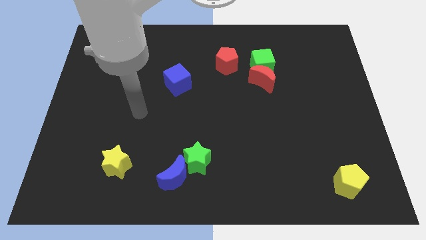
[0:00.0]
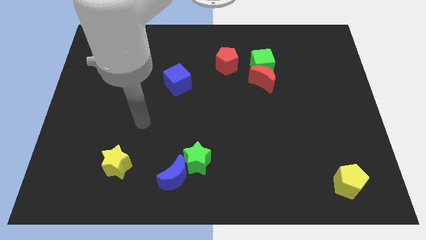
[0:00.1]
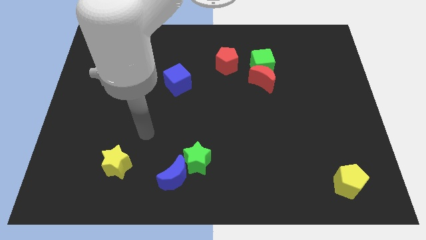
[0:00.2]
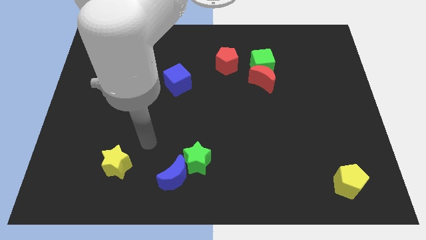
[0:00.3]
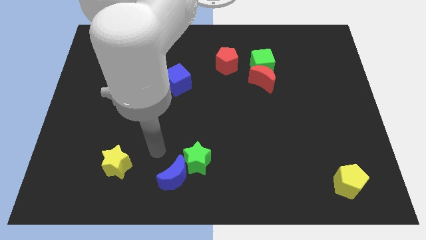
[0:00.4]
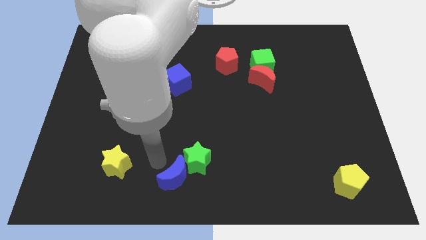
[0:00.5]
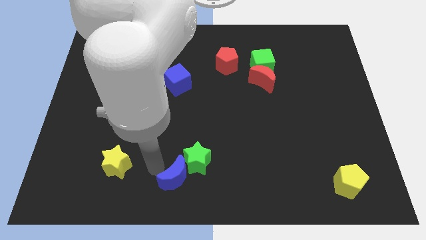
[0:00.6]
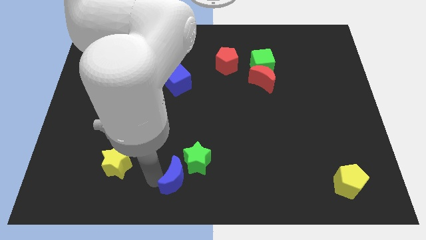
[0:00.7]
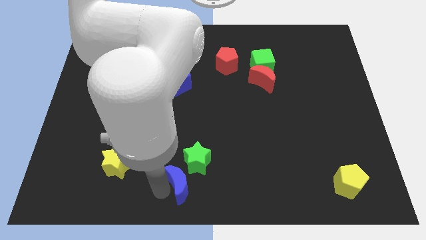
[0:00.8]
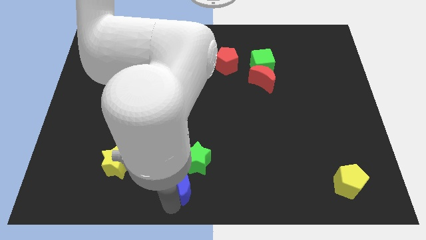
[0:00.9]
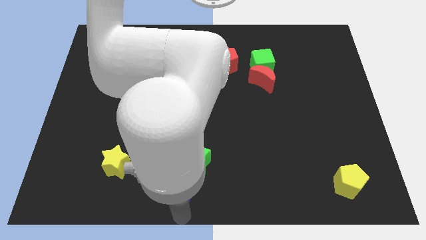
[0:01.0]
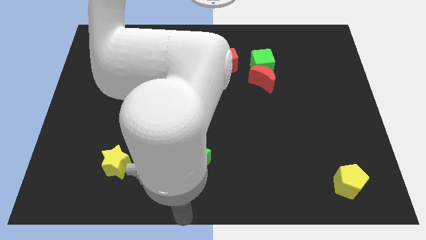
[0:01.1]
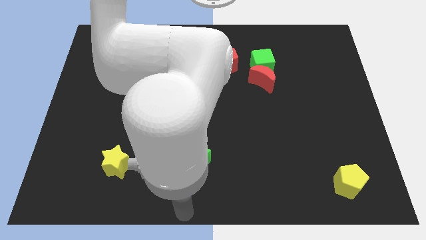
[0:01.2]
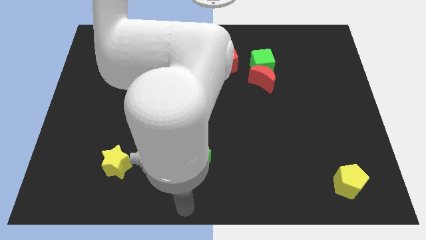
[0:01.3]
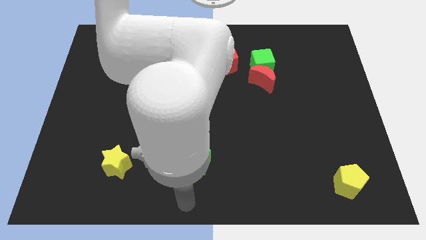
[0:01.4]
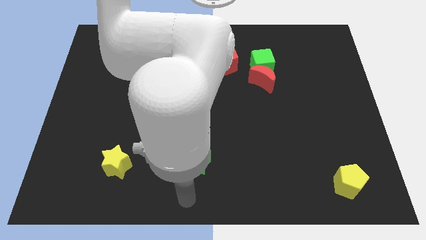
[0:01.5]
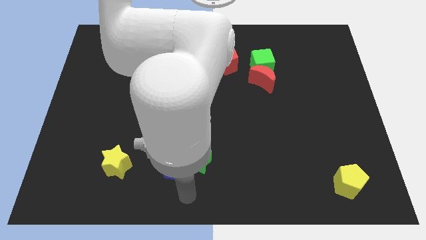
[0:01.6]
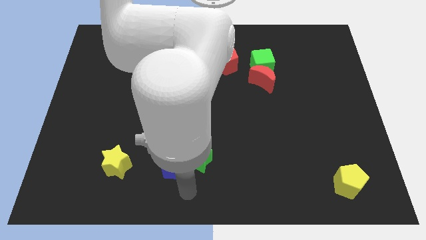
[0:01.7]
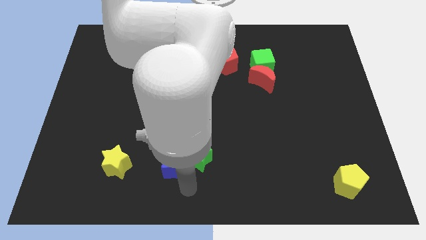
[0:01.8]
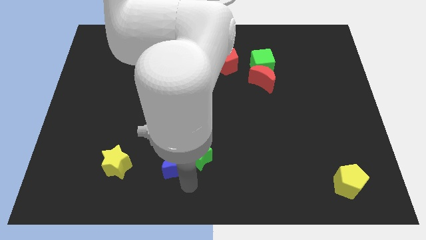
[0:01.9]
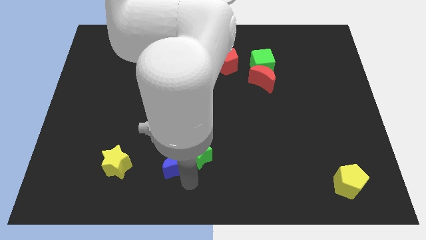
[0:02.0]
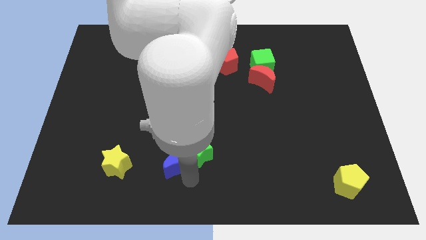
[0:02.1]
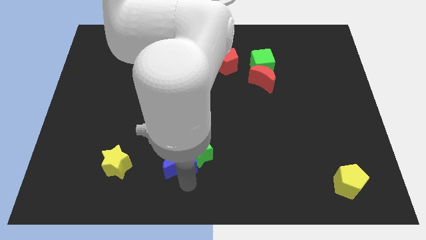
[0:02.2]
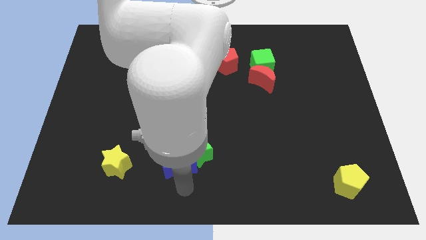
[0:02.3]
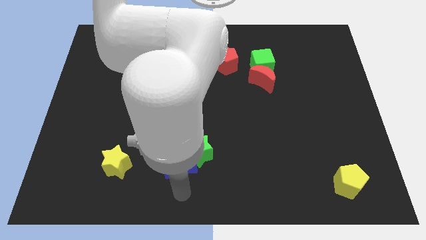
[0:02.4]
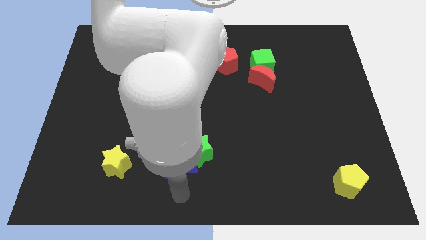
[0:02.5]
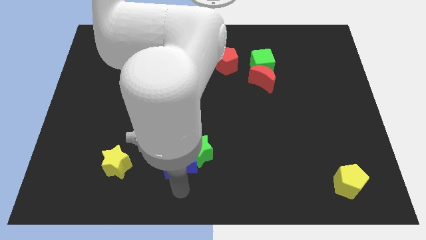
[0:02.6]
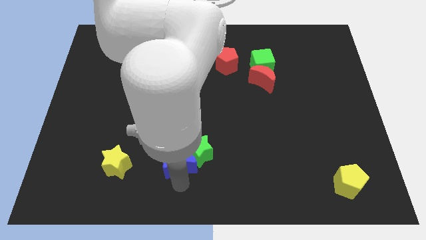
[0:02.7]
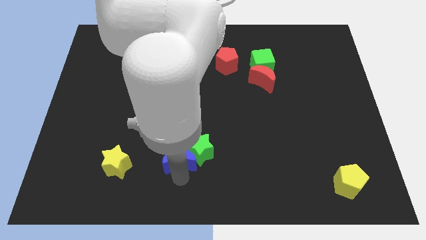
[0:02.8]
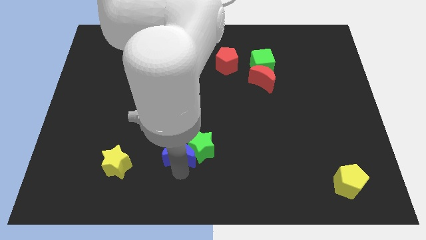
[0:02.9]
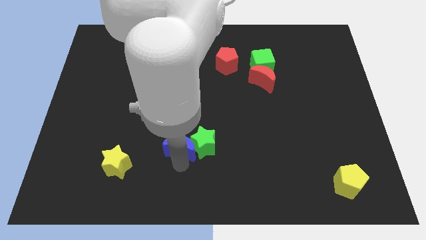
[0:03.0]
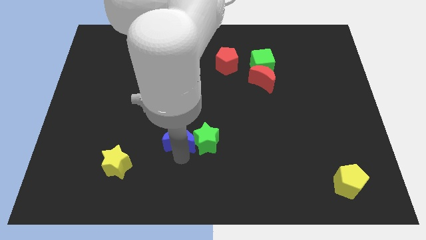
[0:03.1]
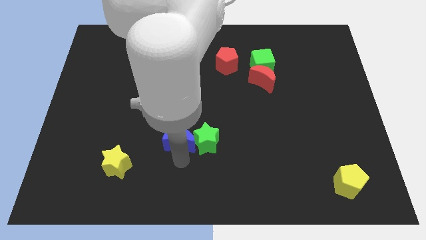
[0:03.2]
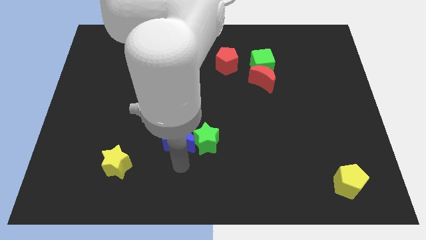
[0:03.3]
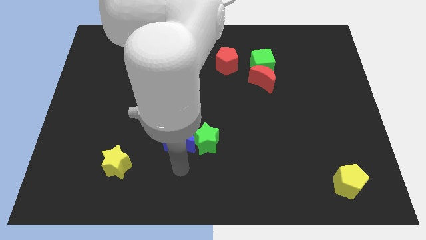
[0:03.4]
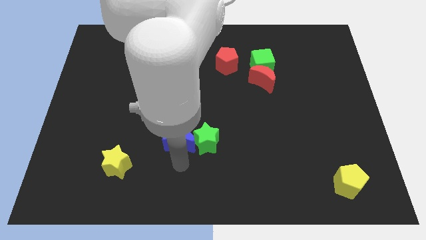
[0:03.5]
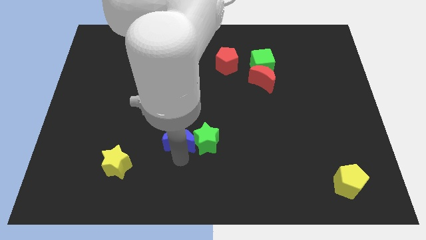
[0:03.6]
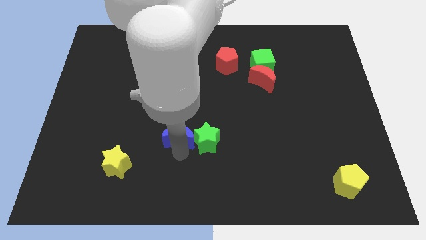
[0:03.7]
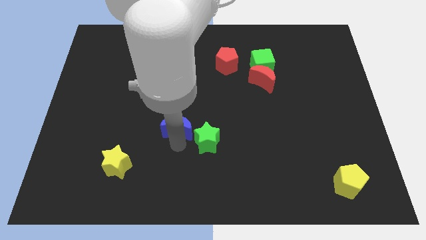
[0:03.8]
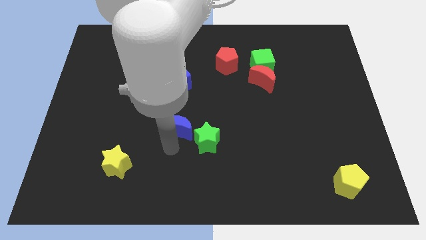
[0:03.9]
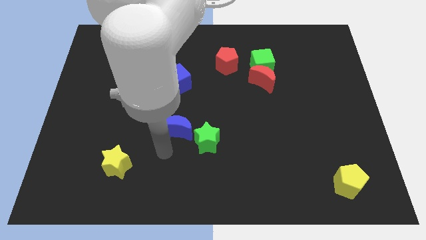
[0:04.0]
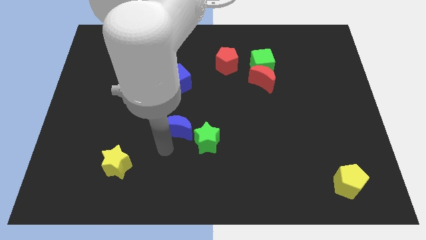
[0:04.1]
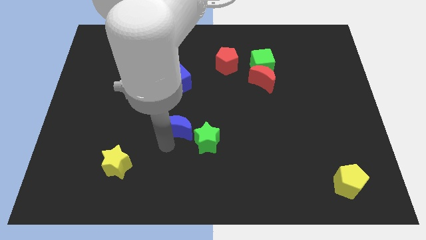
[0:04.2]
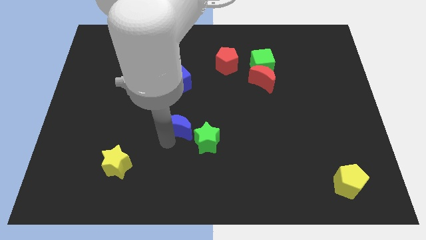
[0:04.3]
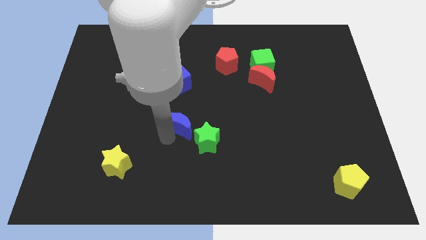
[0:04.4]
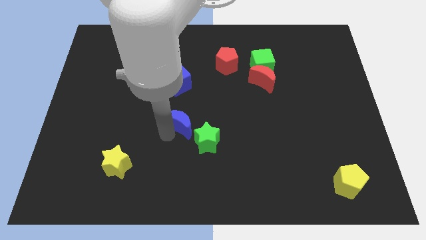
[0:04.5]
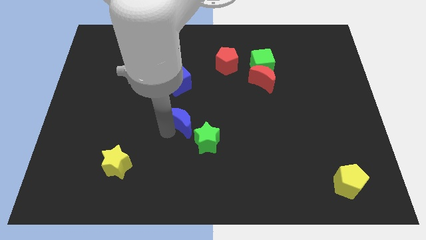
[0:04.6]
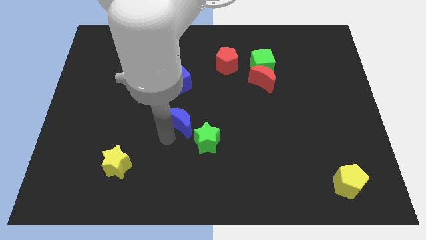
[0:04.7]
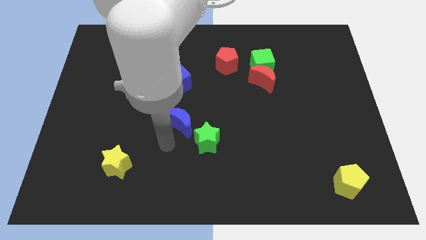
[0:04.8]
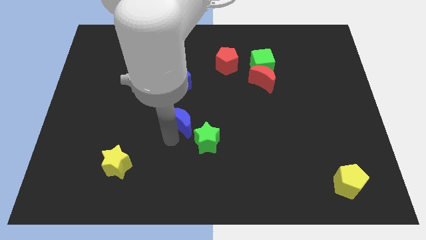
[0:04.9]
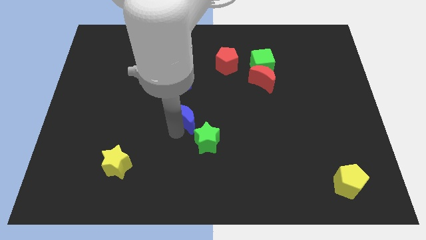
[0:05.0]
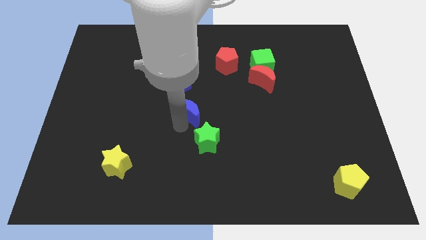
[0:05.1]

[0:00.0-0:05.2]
push the blue moon to the bottom right side of the blue cube

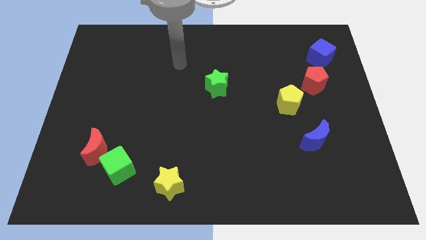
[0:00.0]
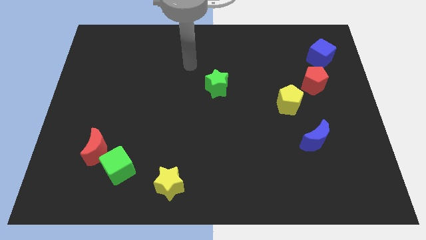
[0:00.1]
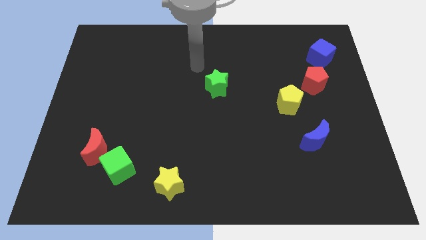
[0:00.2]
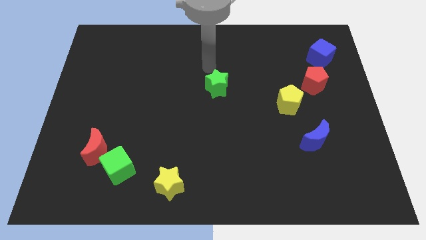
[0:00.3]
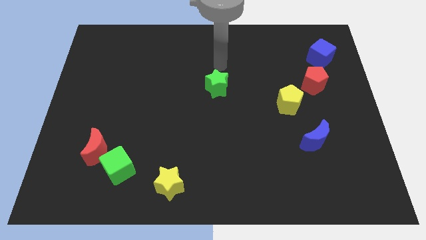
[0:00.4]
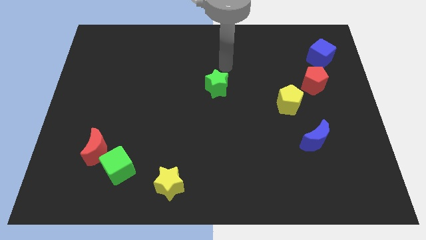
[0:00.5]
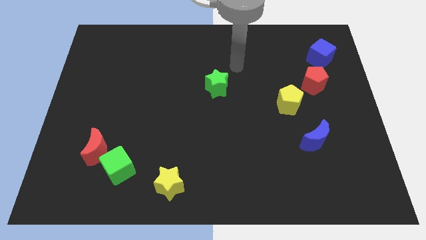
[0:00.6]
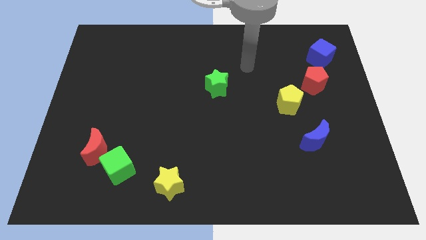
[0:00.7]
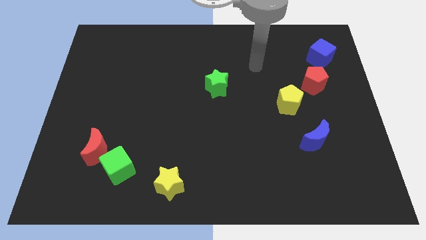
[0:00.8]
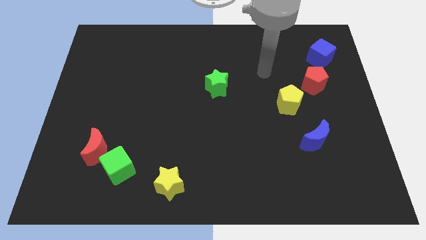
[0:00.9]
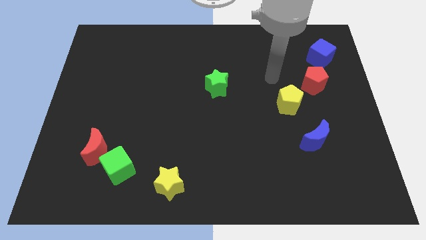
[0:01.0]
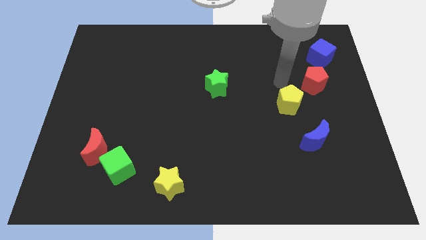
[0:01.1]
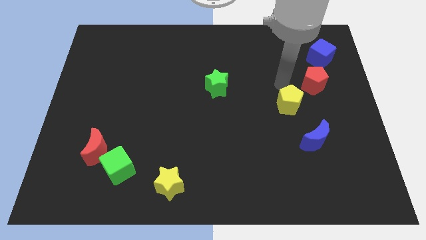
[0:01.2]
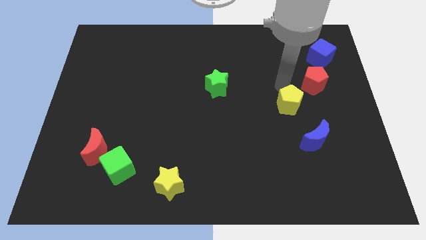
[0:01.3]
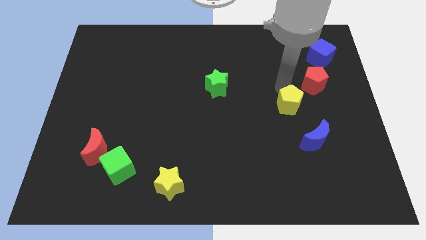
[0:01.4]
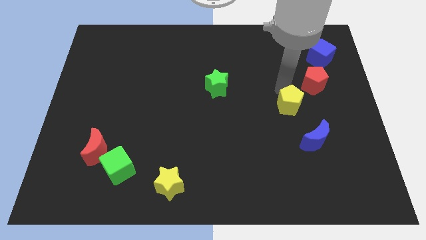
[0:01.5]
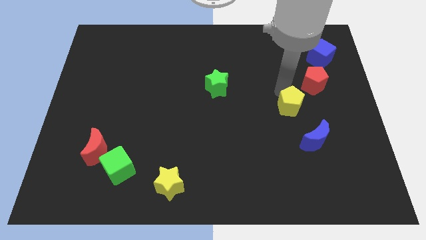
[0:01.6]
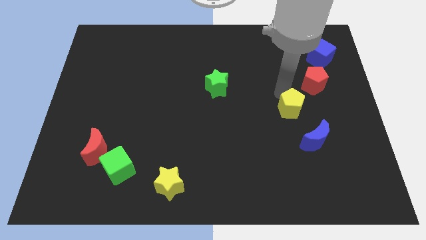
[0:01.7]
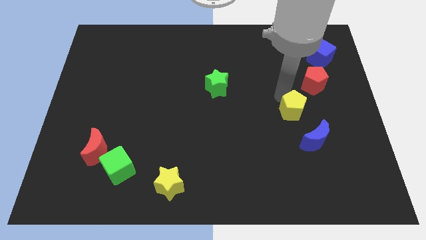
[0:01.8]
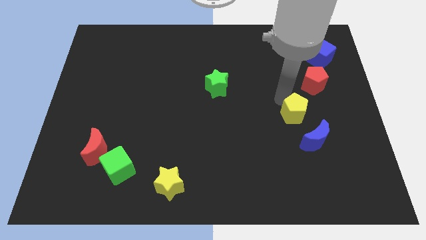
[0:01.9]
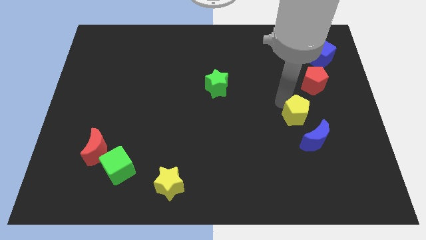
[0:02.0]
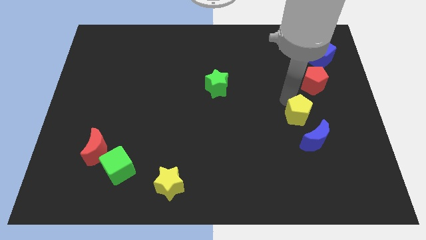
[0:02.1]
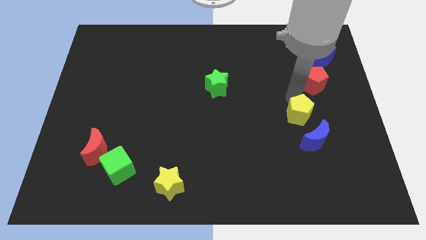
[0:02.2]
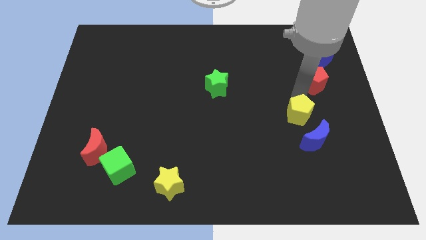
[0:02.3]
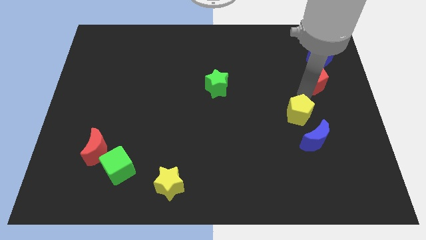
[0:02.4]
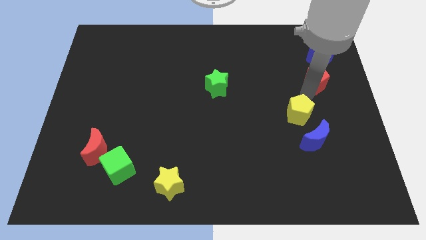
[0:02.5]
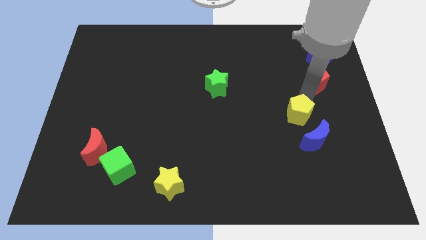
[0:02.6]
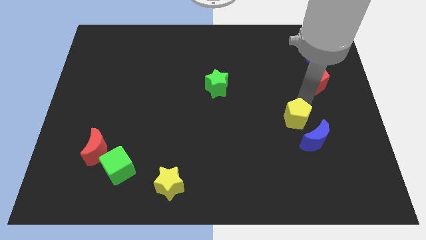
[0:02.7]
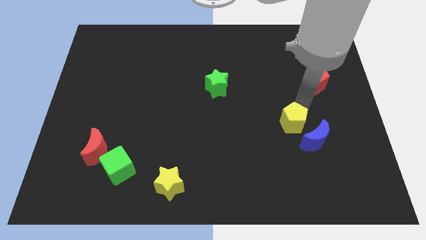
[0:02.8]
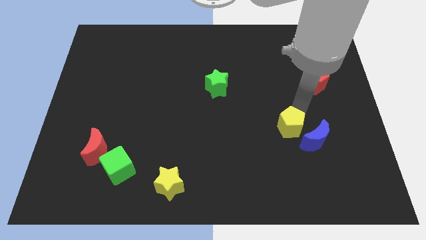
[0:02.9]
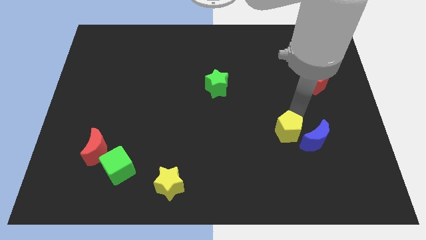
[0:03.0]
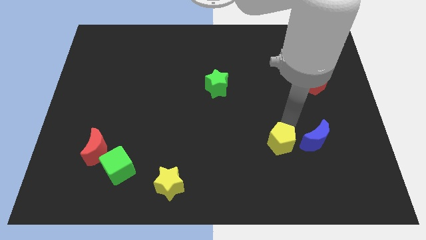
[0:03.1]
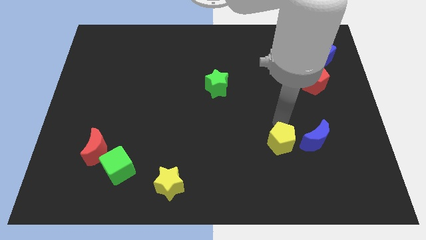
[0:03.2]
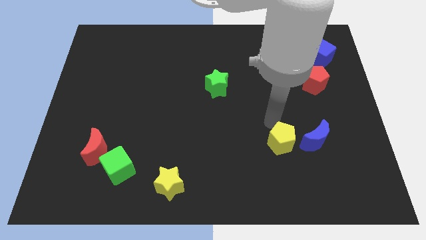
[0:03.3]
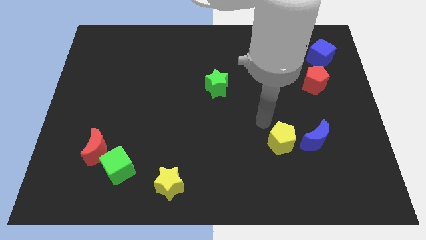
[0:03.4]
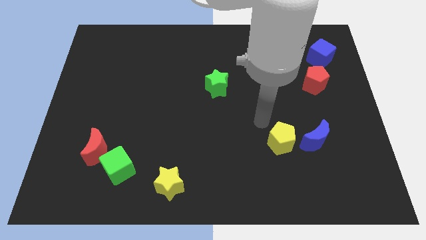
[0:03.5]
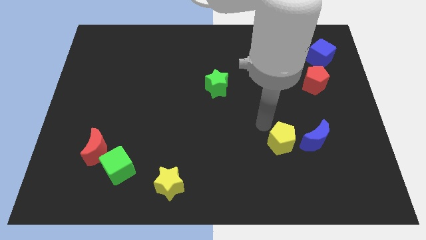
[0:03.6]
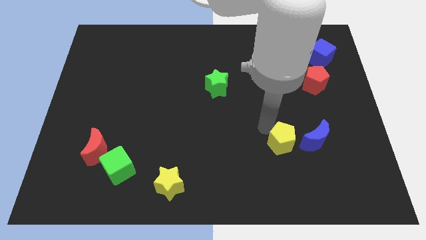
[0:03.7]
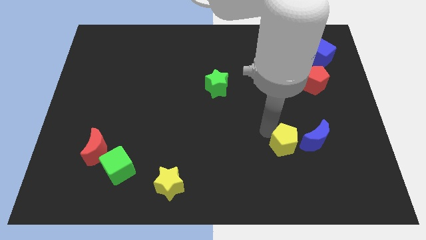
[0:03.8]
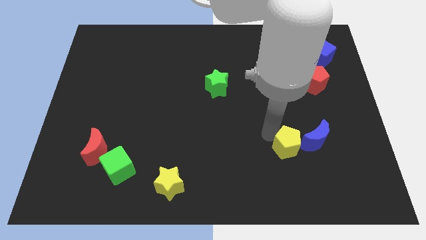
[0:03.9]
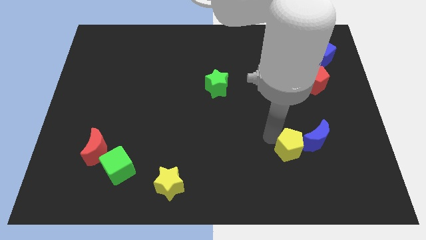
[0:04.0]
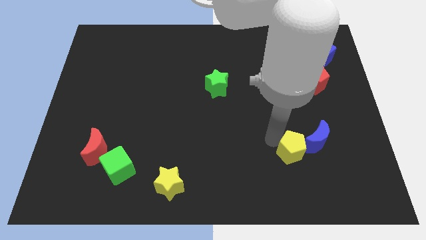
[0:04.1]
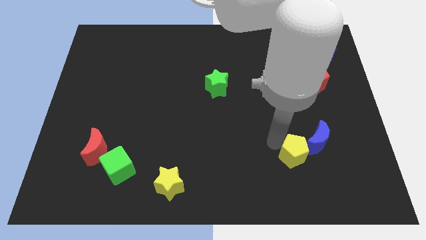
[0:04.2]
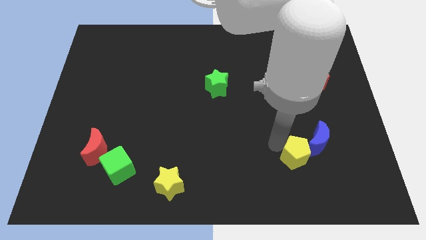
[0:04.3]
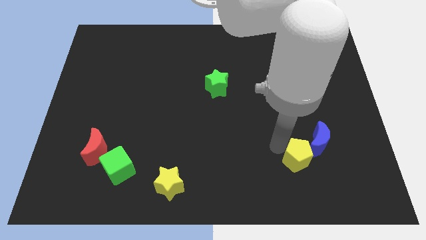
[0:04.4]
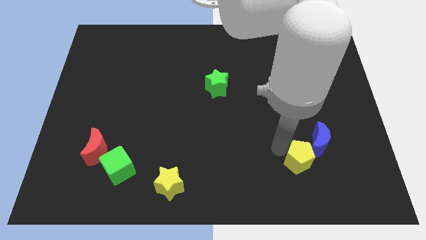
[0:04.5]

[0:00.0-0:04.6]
move the yellow pentagon to the bottom side of the blue moon
